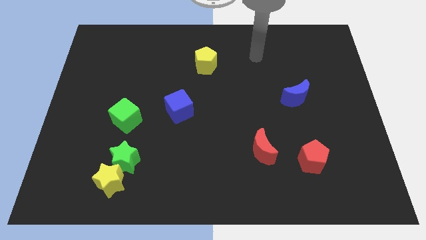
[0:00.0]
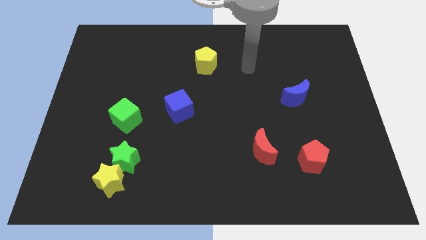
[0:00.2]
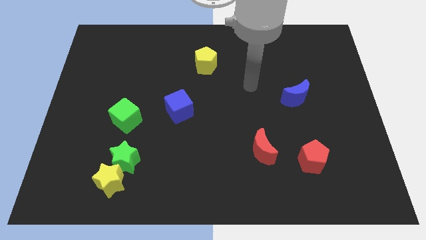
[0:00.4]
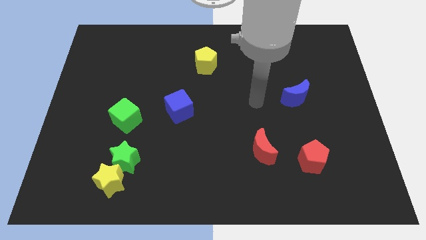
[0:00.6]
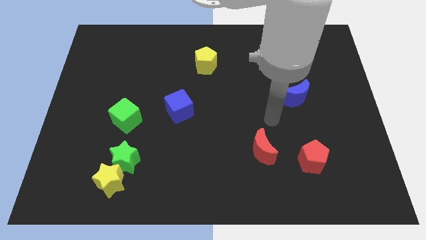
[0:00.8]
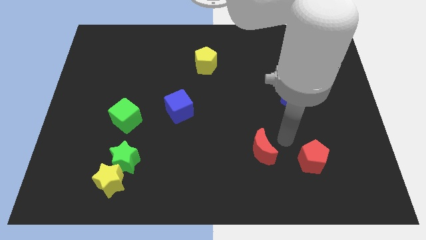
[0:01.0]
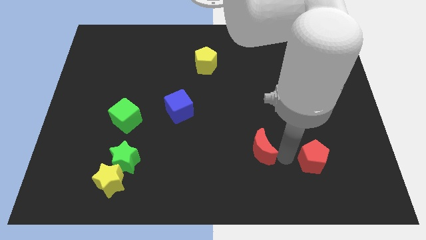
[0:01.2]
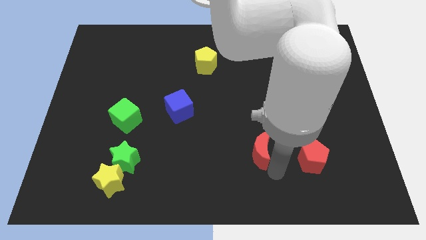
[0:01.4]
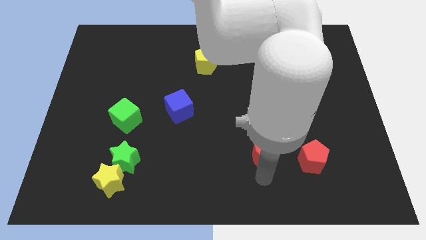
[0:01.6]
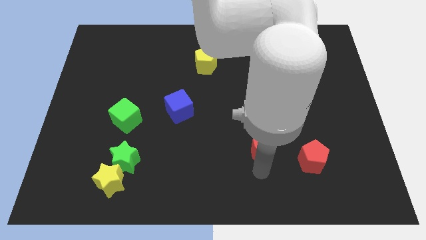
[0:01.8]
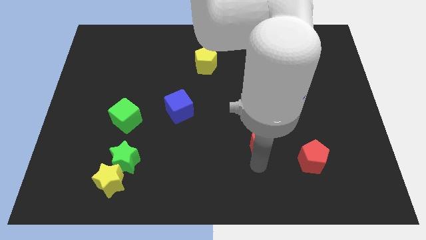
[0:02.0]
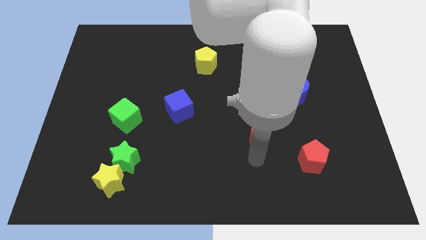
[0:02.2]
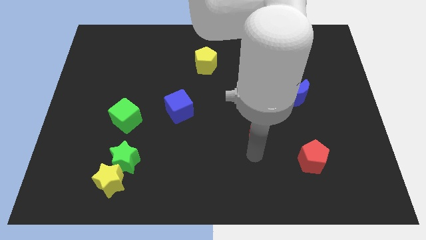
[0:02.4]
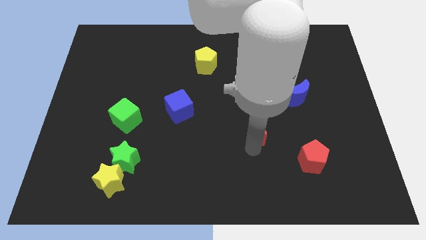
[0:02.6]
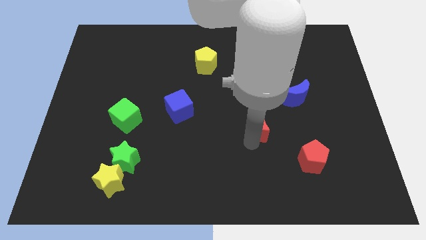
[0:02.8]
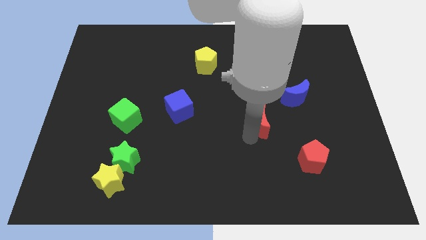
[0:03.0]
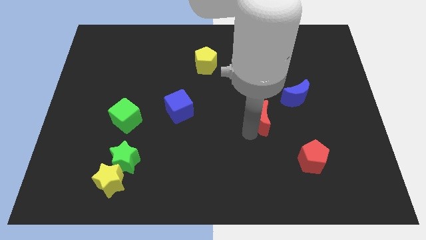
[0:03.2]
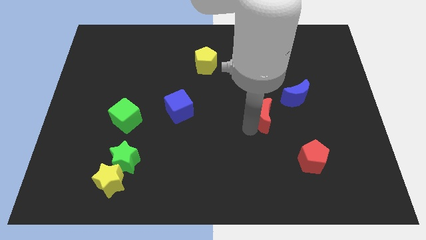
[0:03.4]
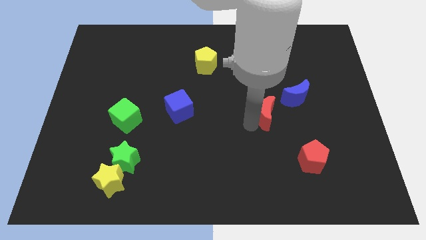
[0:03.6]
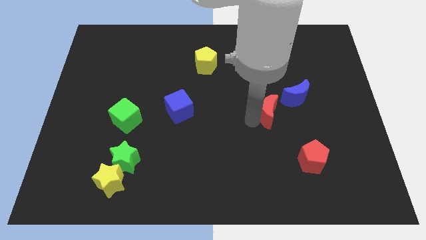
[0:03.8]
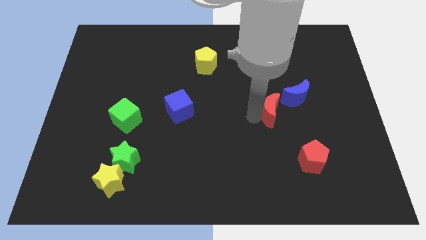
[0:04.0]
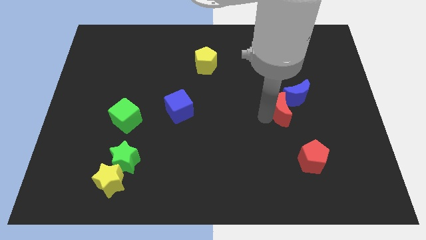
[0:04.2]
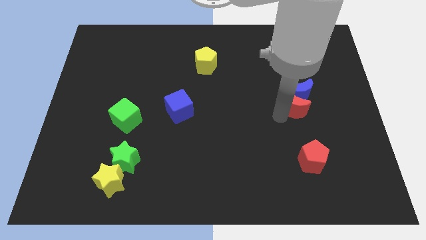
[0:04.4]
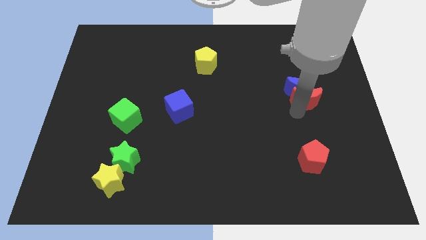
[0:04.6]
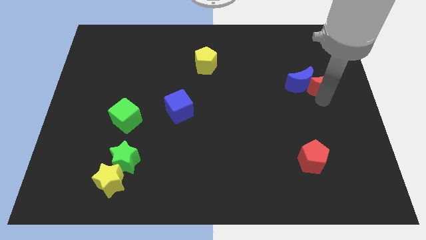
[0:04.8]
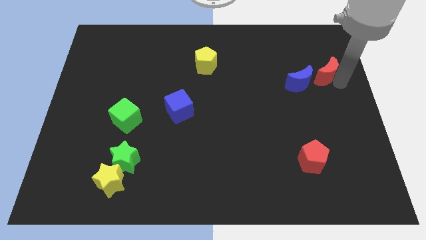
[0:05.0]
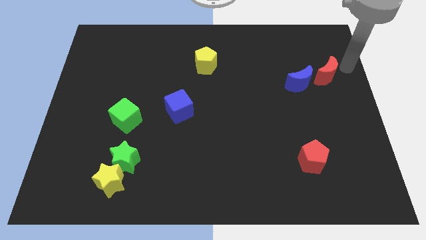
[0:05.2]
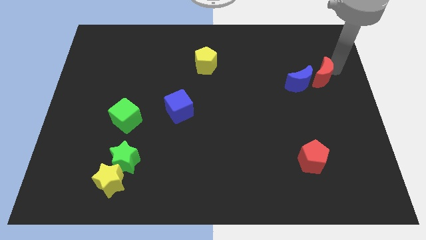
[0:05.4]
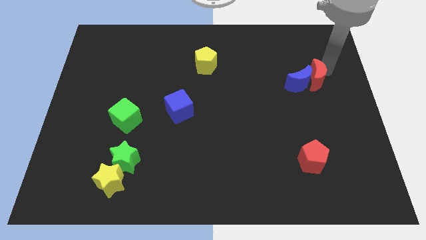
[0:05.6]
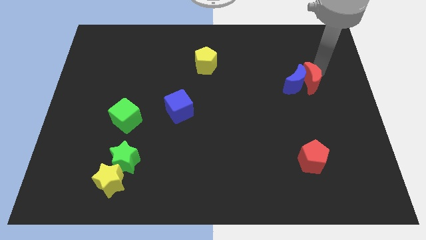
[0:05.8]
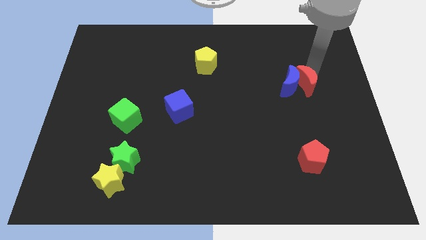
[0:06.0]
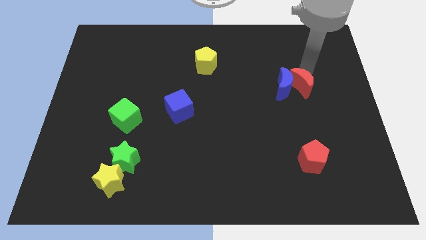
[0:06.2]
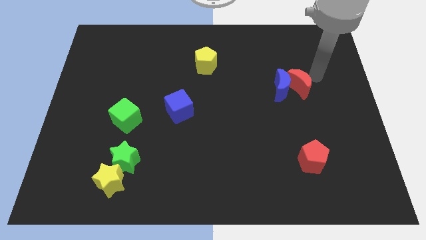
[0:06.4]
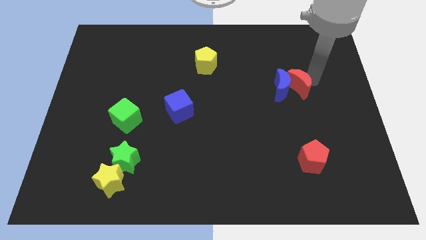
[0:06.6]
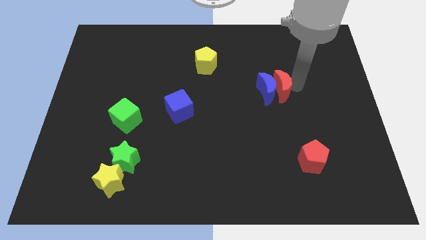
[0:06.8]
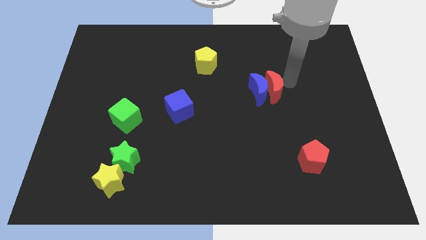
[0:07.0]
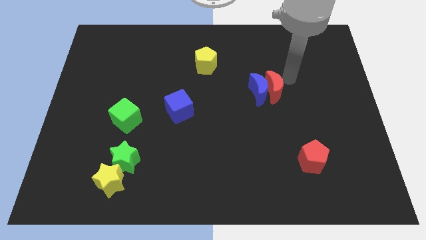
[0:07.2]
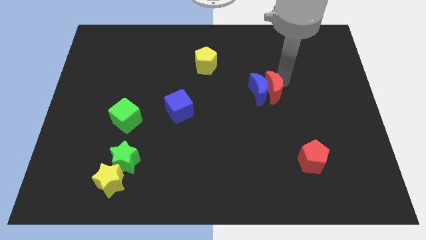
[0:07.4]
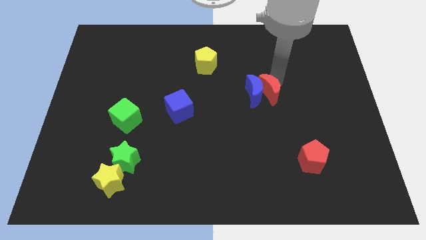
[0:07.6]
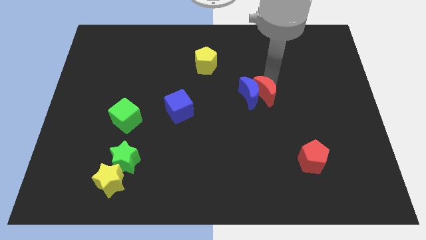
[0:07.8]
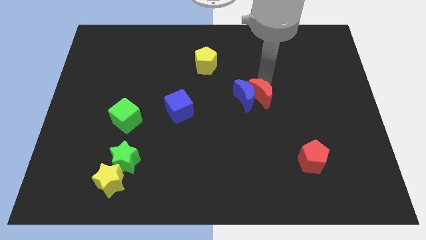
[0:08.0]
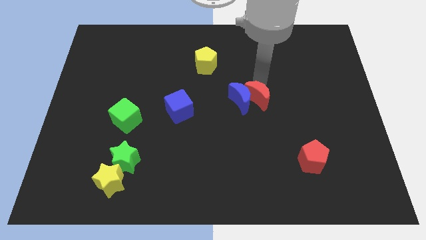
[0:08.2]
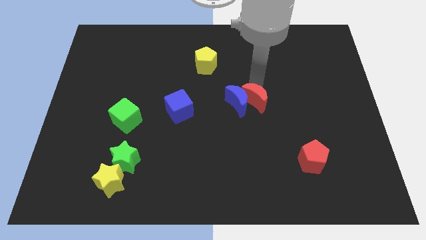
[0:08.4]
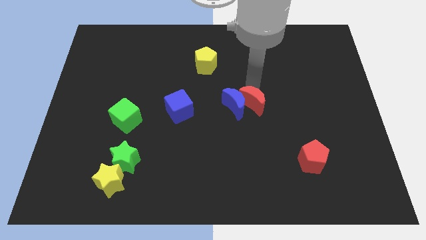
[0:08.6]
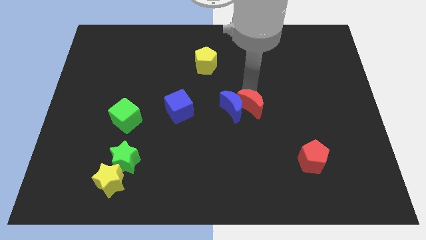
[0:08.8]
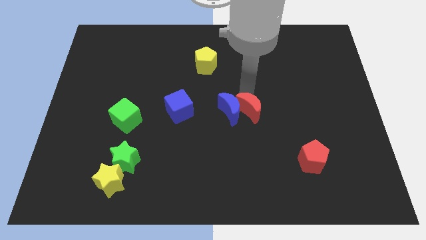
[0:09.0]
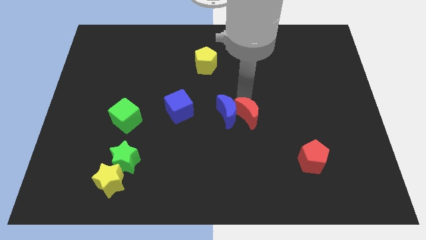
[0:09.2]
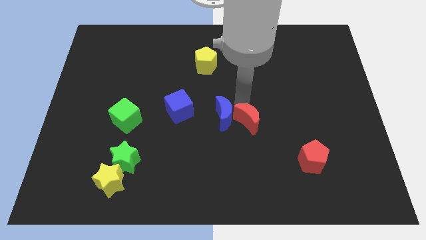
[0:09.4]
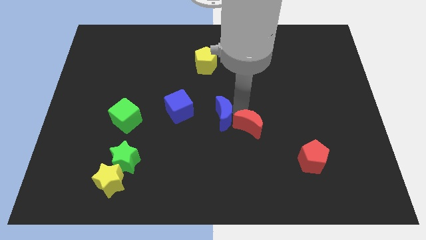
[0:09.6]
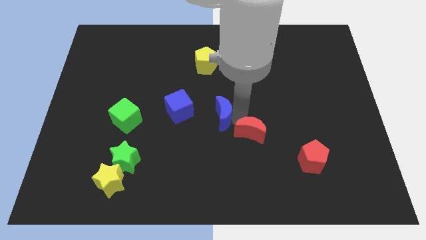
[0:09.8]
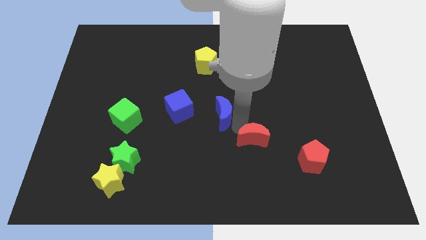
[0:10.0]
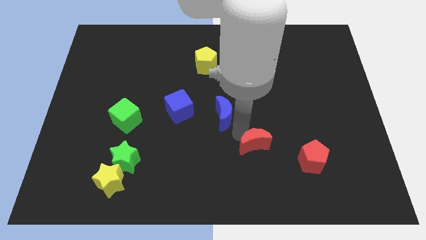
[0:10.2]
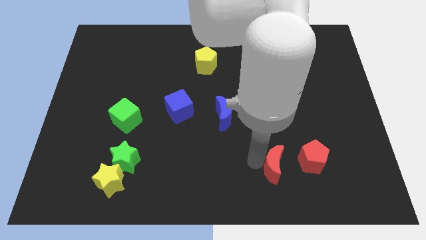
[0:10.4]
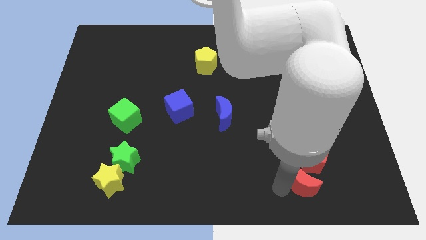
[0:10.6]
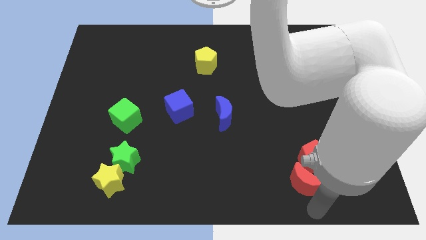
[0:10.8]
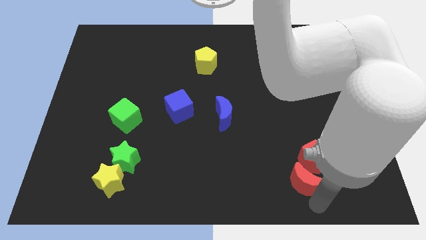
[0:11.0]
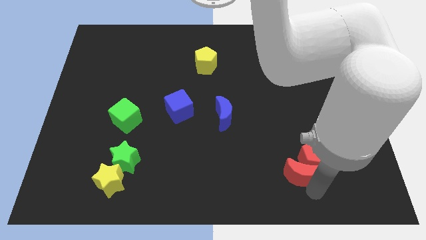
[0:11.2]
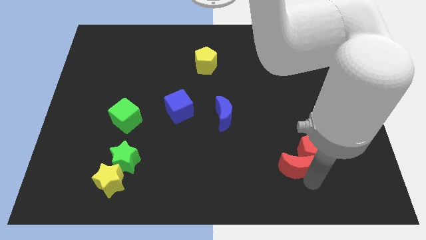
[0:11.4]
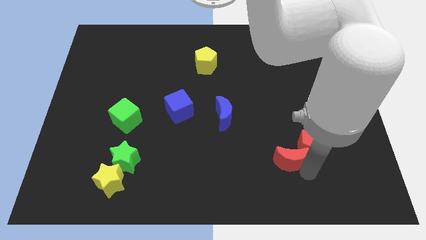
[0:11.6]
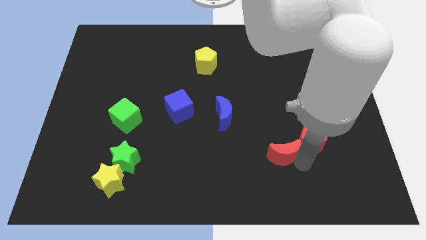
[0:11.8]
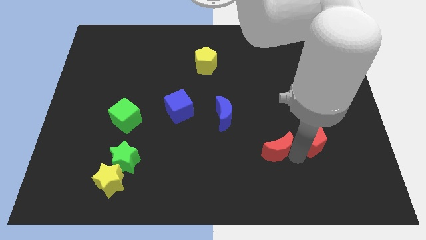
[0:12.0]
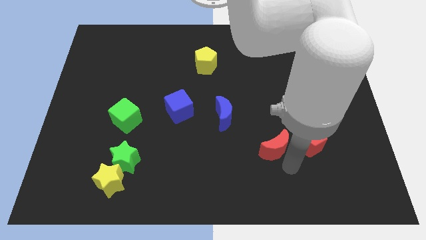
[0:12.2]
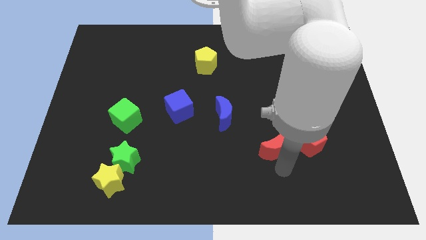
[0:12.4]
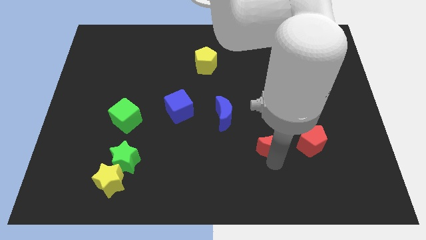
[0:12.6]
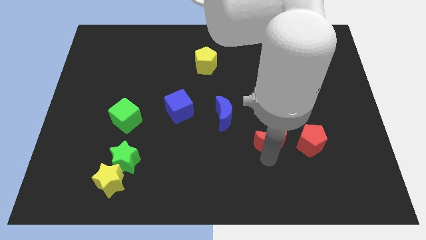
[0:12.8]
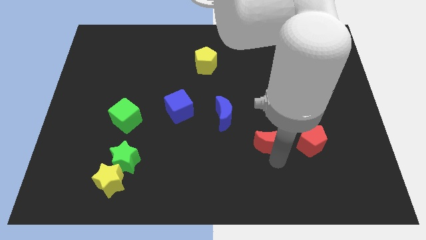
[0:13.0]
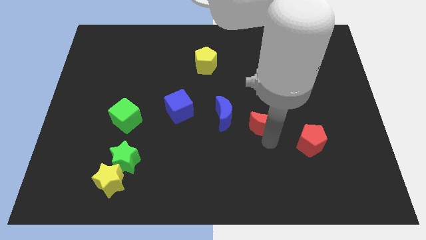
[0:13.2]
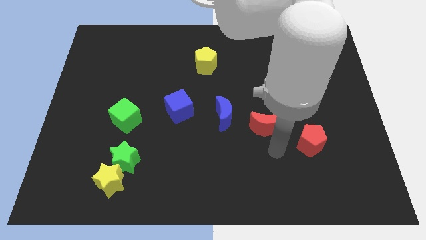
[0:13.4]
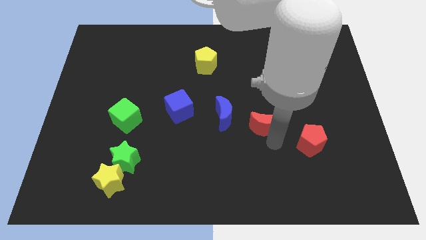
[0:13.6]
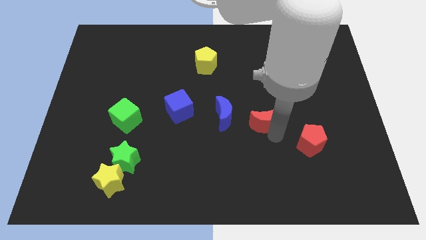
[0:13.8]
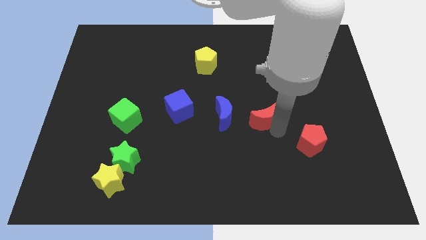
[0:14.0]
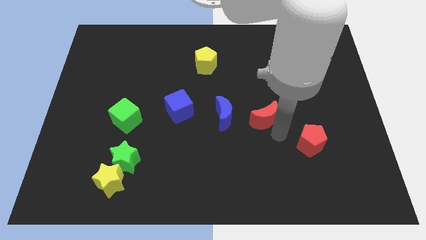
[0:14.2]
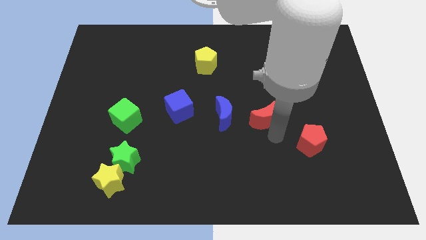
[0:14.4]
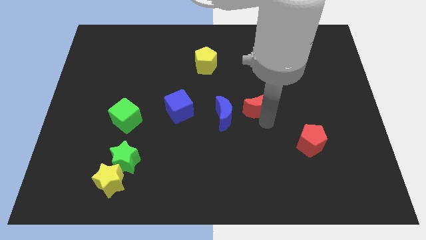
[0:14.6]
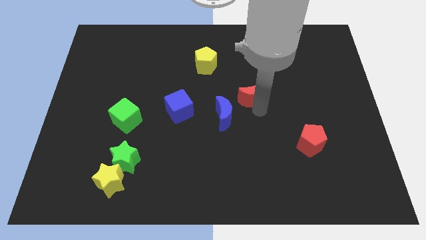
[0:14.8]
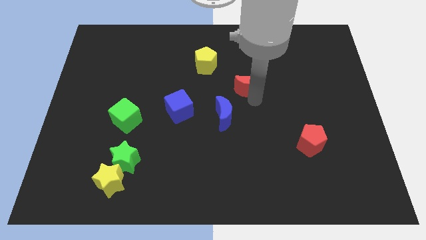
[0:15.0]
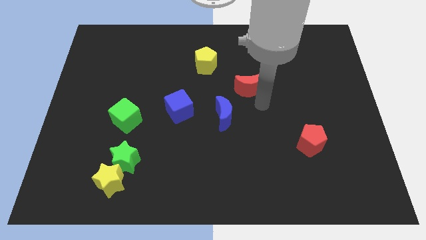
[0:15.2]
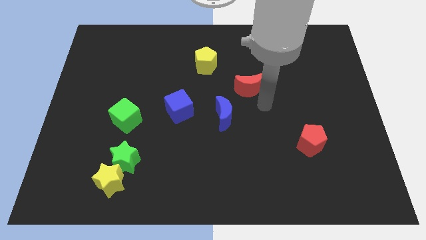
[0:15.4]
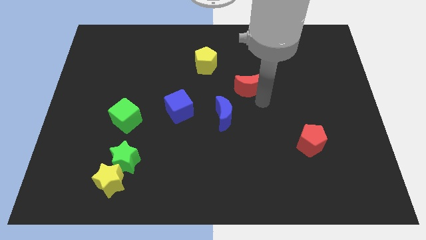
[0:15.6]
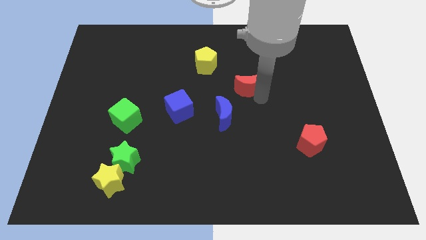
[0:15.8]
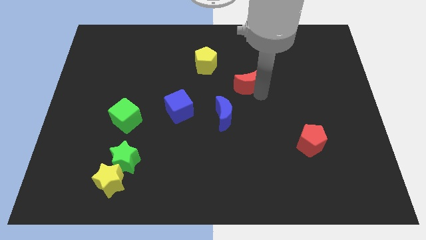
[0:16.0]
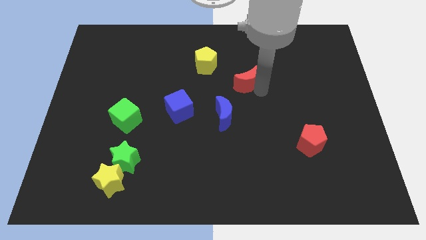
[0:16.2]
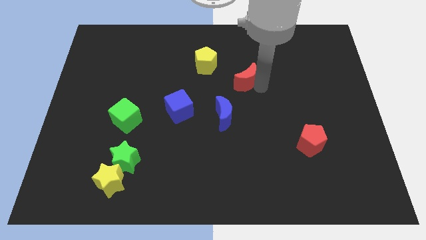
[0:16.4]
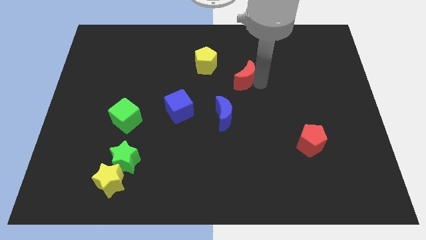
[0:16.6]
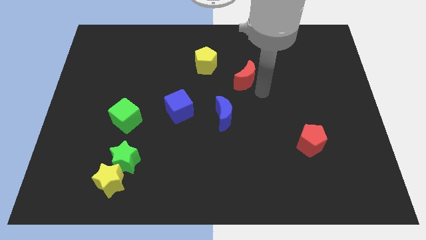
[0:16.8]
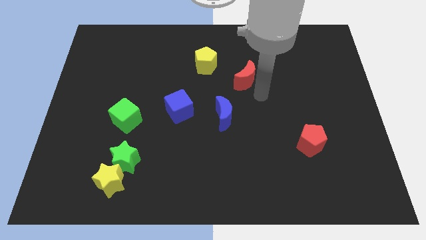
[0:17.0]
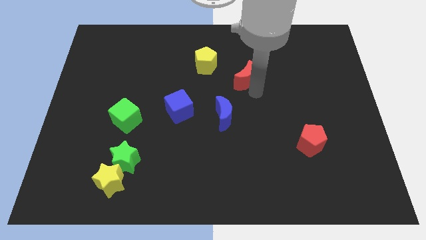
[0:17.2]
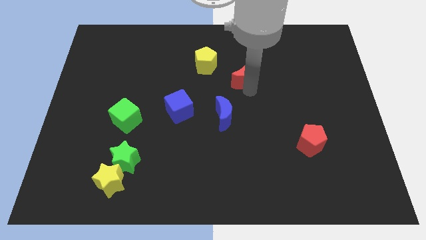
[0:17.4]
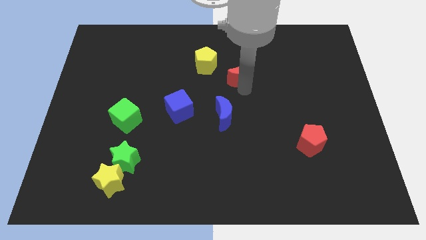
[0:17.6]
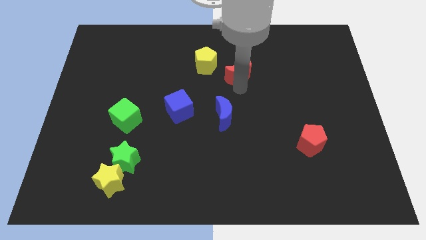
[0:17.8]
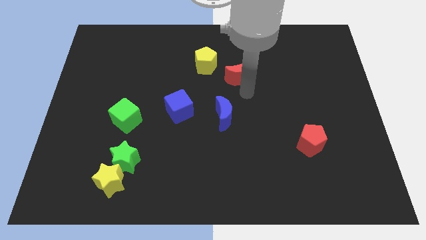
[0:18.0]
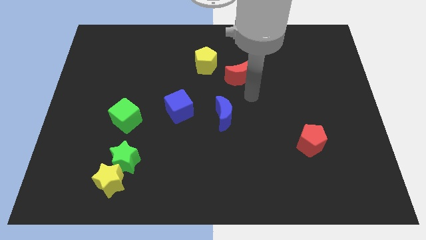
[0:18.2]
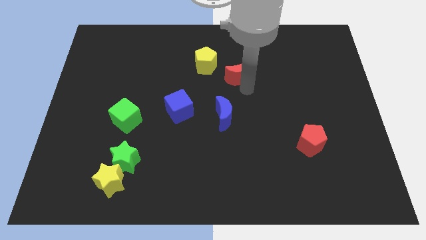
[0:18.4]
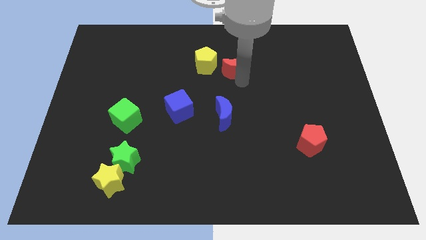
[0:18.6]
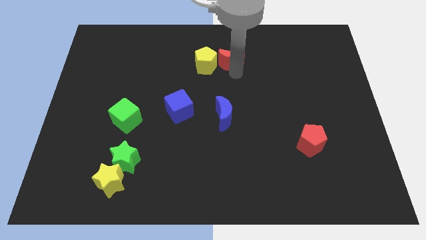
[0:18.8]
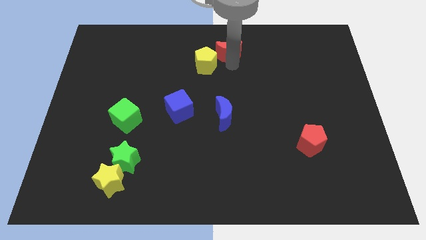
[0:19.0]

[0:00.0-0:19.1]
put the red moon to the top side
